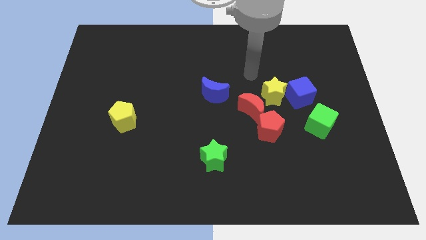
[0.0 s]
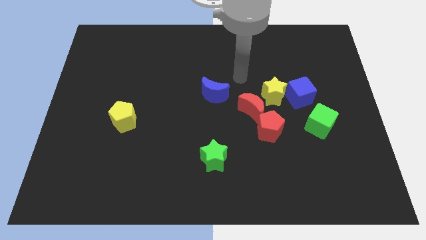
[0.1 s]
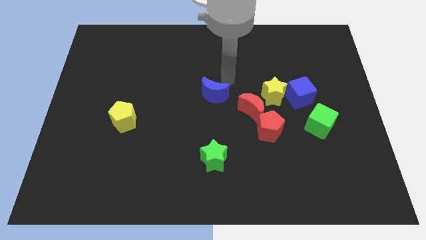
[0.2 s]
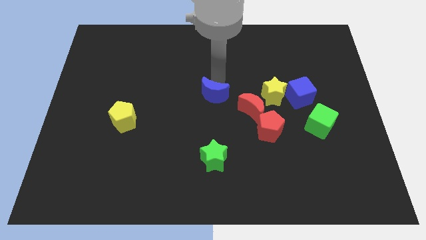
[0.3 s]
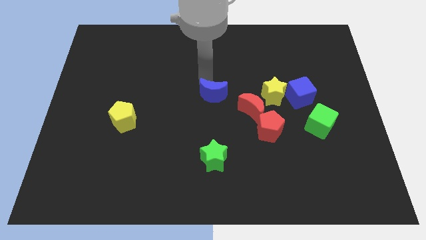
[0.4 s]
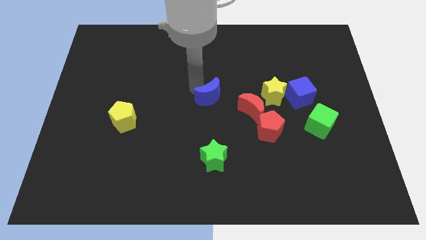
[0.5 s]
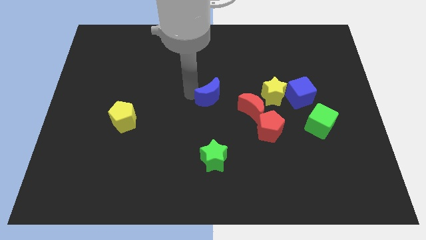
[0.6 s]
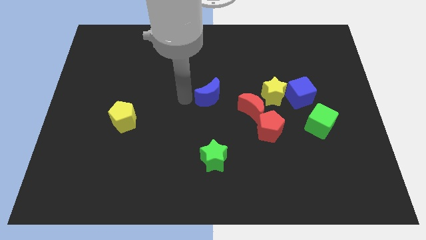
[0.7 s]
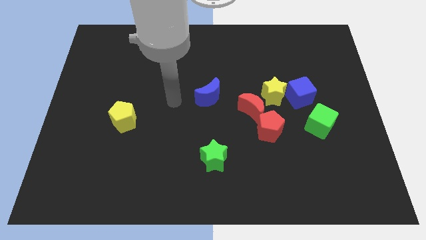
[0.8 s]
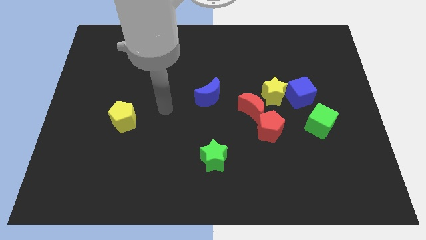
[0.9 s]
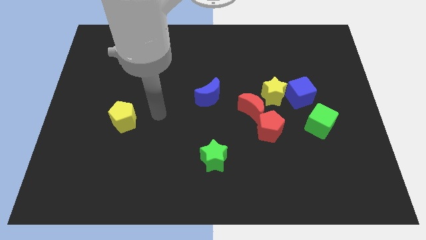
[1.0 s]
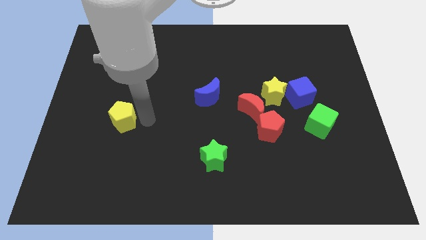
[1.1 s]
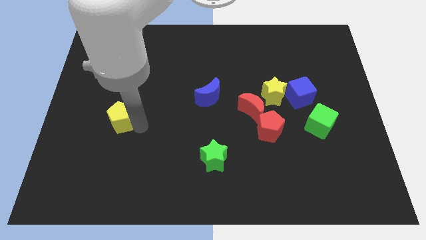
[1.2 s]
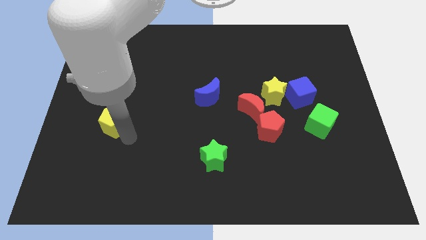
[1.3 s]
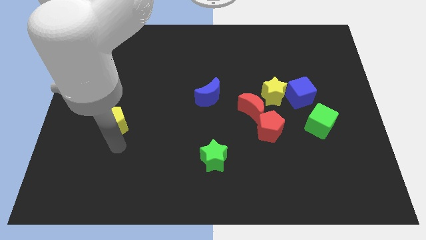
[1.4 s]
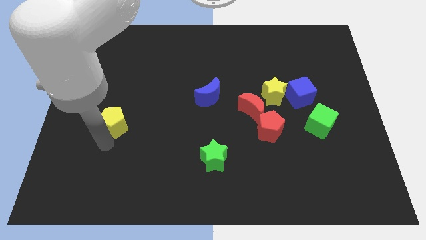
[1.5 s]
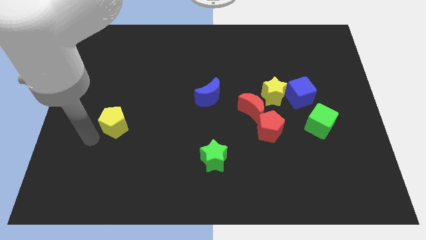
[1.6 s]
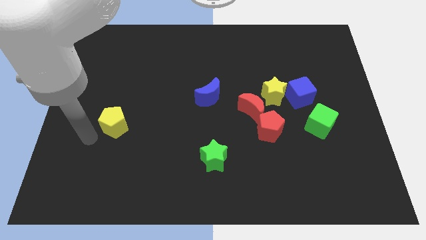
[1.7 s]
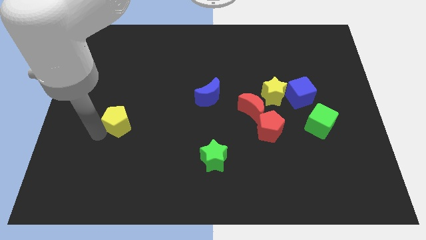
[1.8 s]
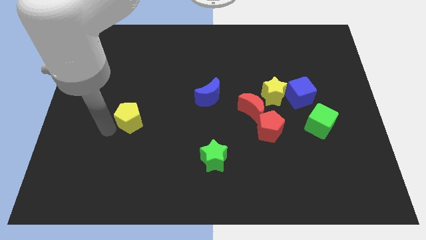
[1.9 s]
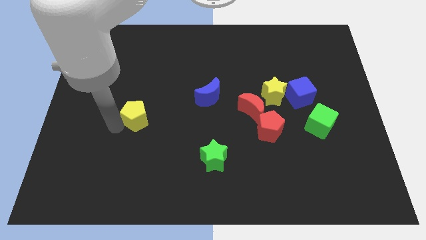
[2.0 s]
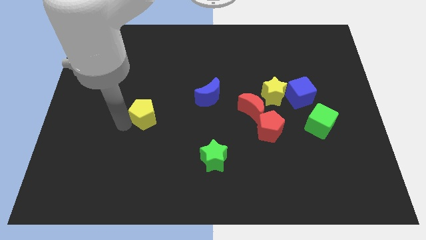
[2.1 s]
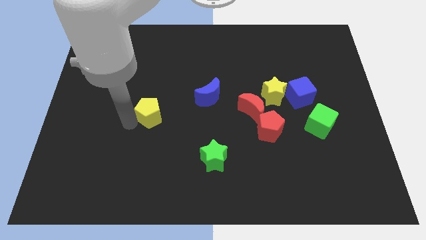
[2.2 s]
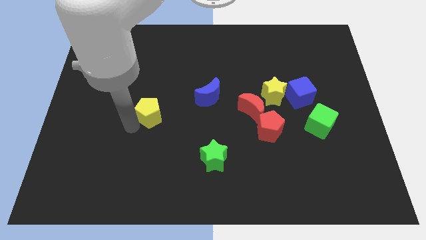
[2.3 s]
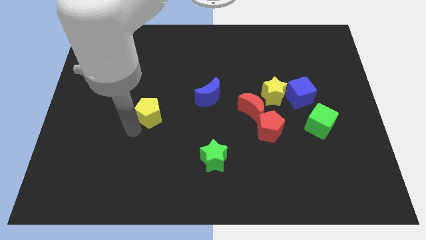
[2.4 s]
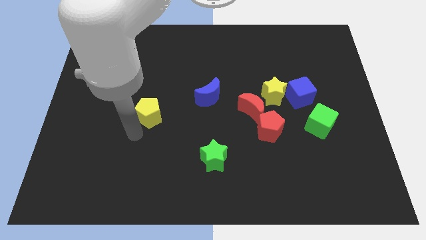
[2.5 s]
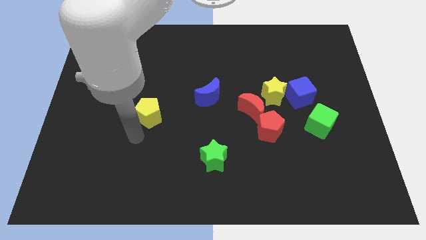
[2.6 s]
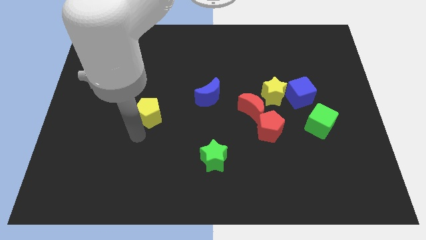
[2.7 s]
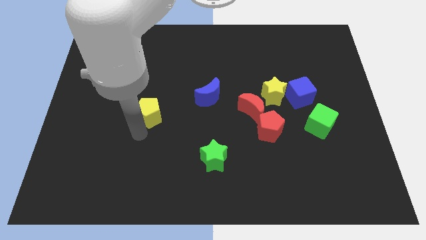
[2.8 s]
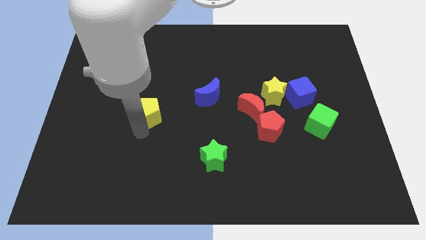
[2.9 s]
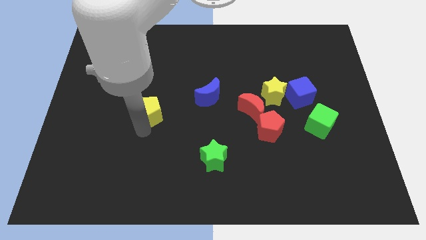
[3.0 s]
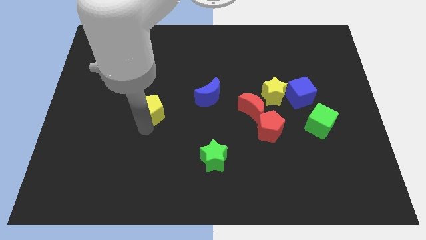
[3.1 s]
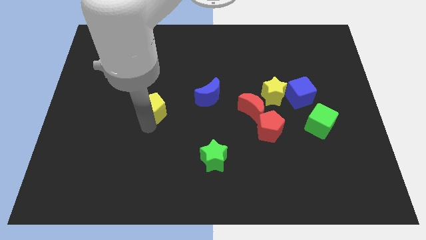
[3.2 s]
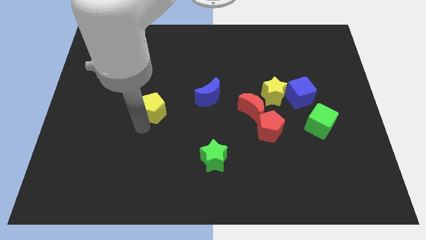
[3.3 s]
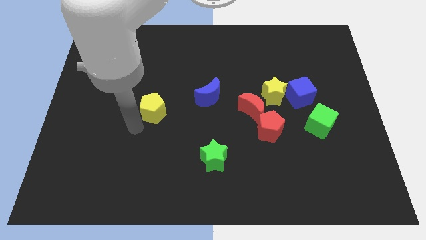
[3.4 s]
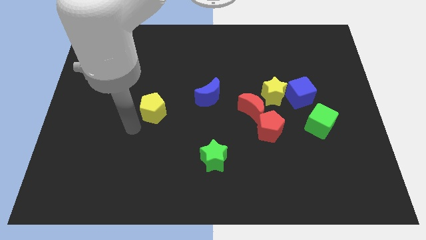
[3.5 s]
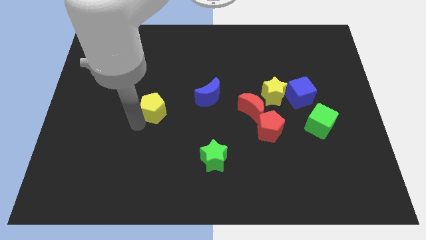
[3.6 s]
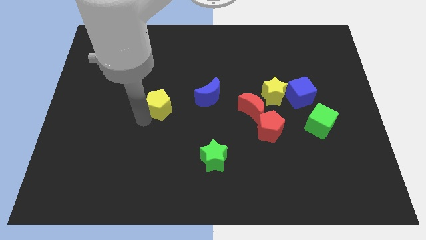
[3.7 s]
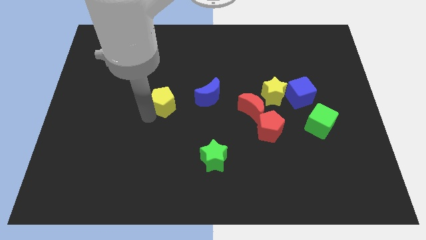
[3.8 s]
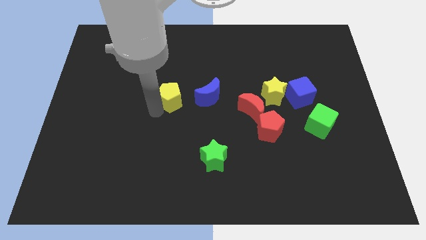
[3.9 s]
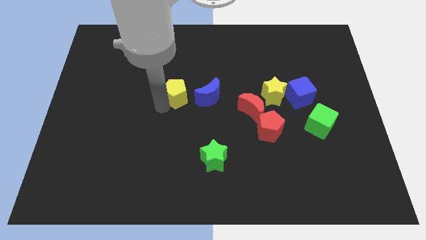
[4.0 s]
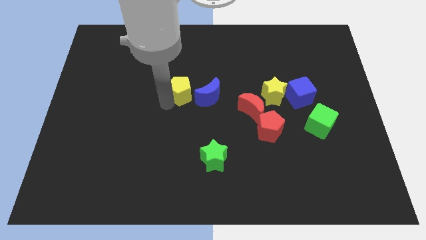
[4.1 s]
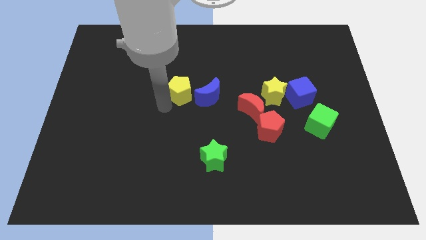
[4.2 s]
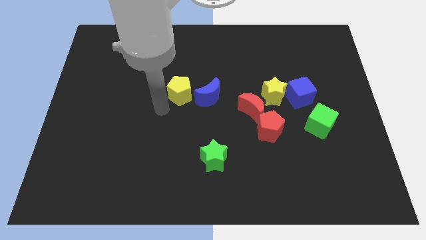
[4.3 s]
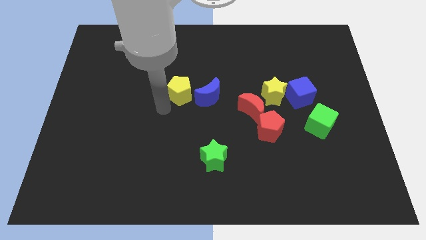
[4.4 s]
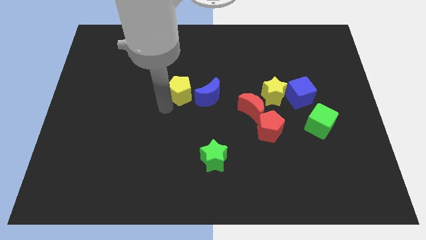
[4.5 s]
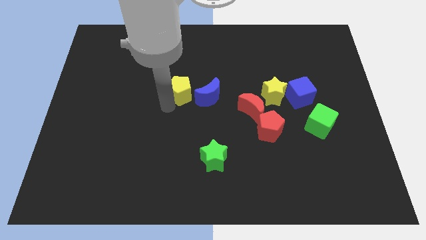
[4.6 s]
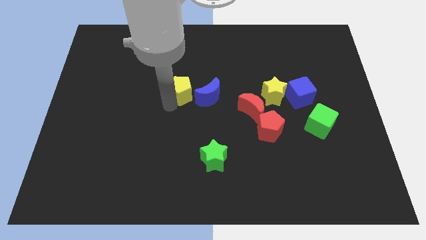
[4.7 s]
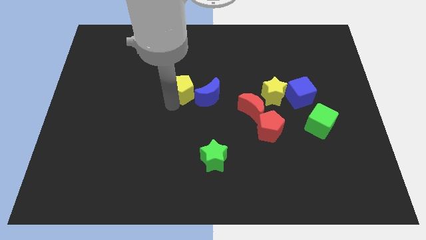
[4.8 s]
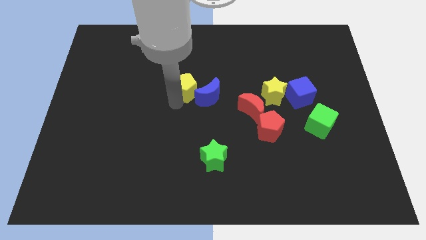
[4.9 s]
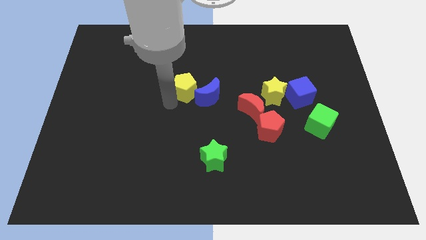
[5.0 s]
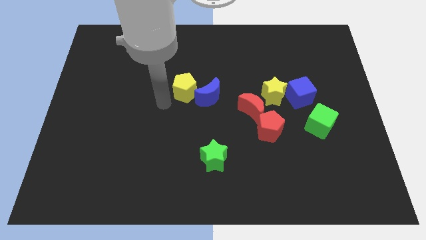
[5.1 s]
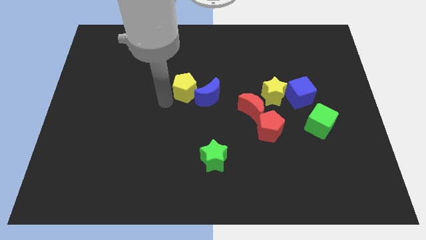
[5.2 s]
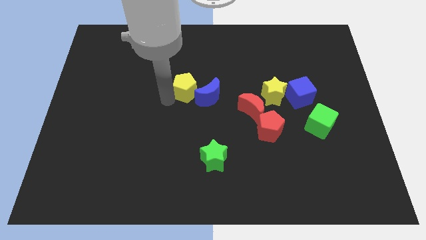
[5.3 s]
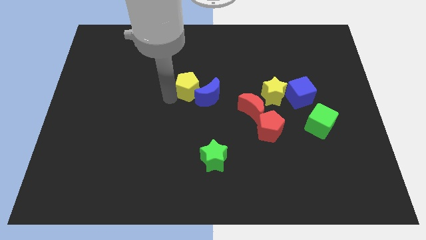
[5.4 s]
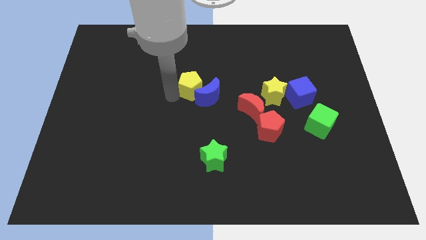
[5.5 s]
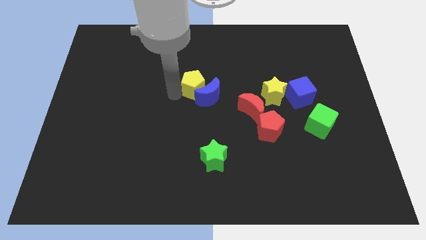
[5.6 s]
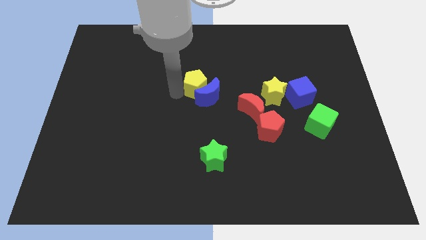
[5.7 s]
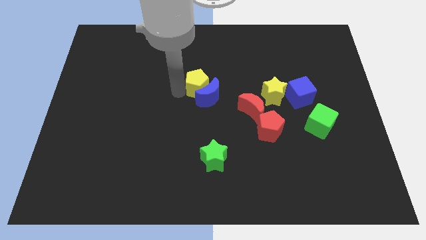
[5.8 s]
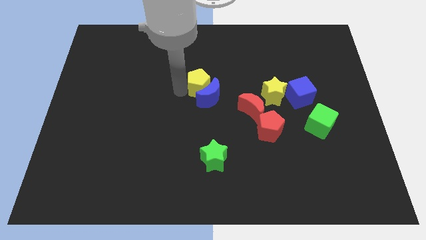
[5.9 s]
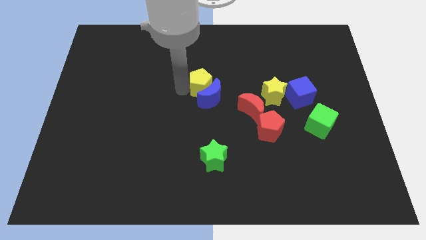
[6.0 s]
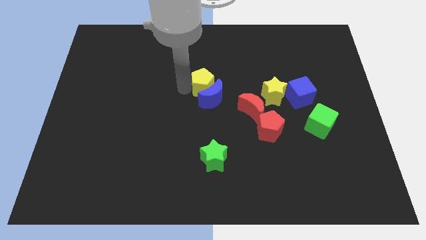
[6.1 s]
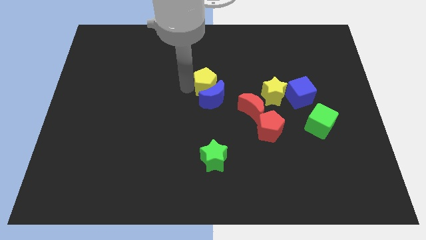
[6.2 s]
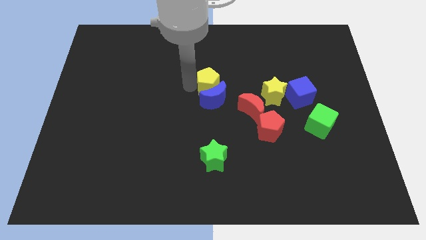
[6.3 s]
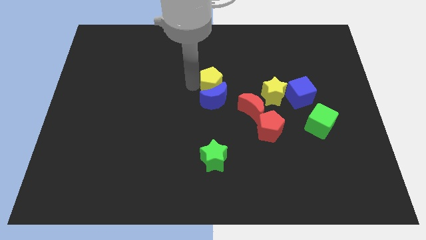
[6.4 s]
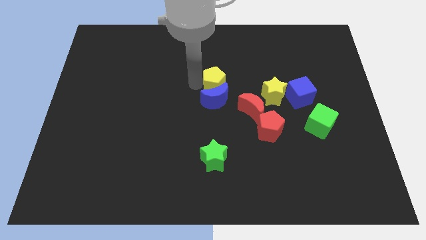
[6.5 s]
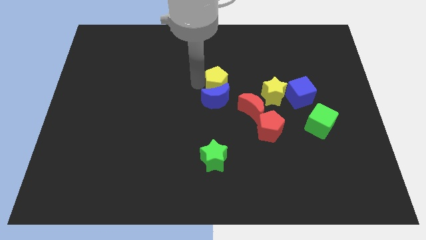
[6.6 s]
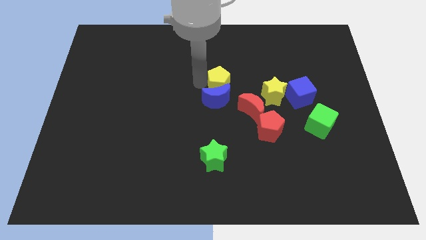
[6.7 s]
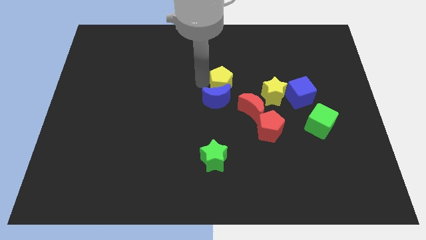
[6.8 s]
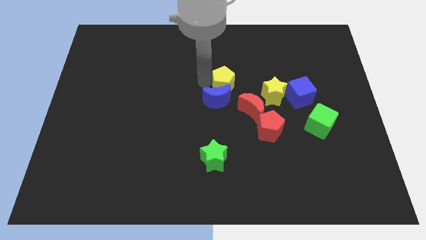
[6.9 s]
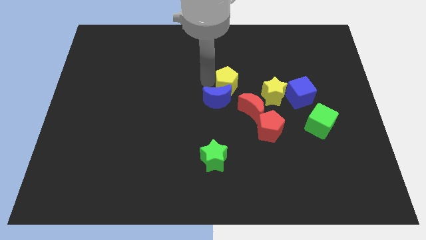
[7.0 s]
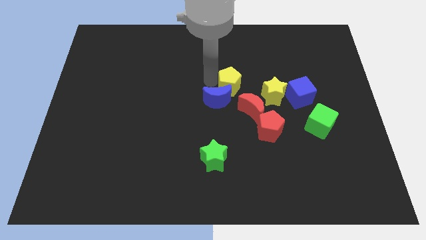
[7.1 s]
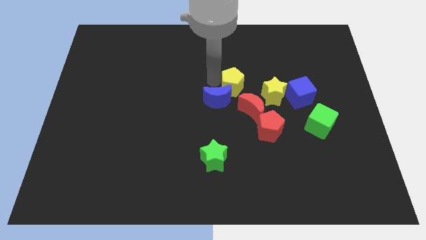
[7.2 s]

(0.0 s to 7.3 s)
slide the yellow pentagon above the red moon
